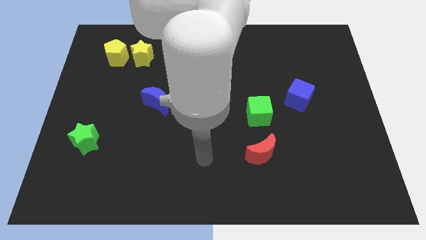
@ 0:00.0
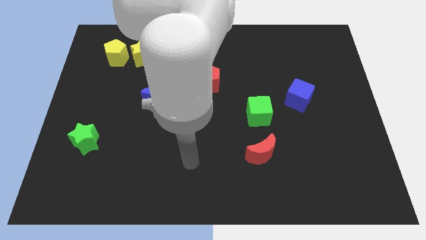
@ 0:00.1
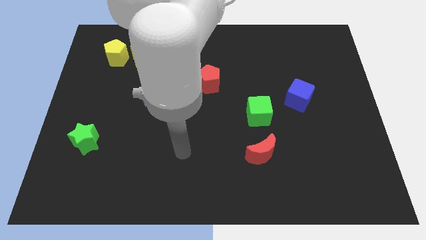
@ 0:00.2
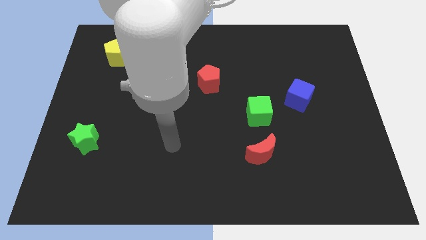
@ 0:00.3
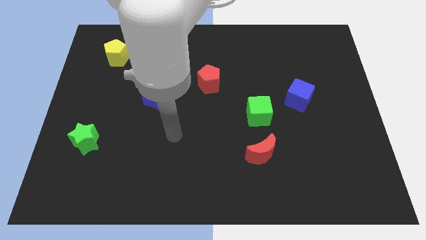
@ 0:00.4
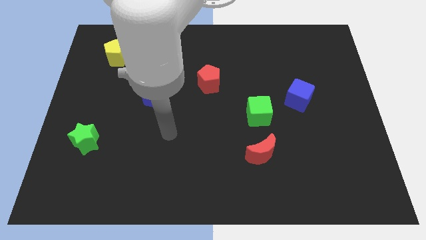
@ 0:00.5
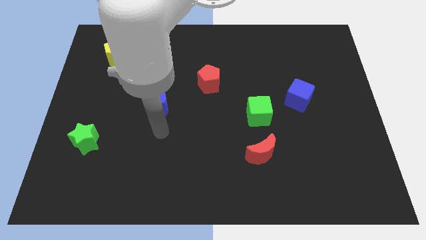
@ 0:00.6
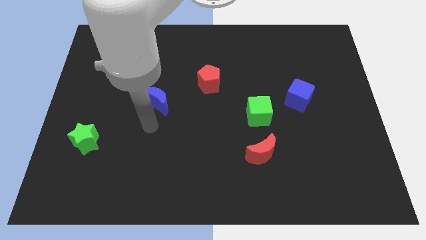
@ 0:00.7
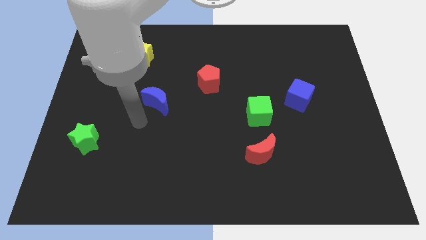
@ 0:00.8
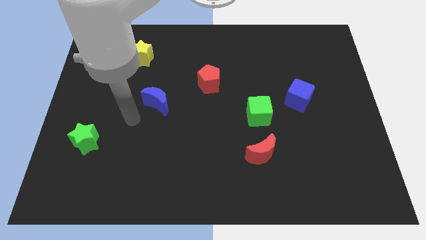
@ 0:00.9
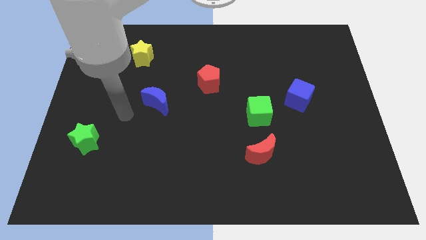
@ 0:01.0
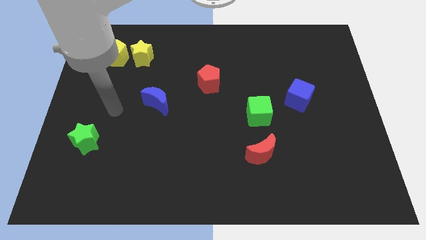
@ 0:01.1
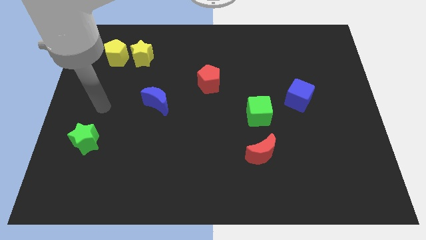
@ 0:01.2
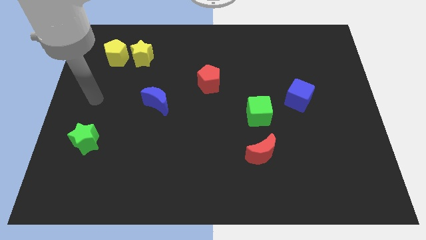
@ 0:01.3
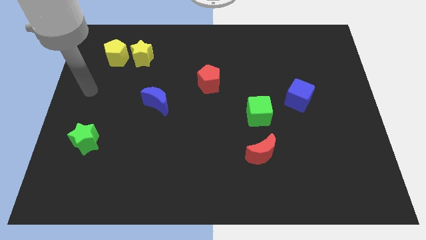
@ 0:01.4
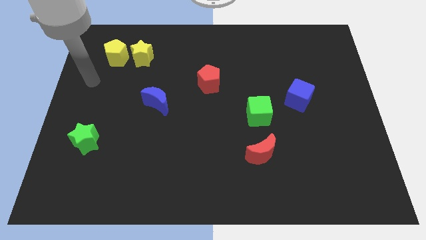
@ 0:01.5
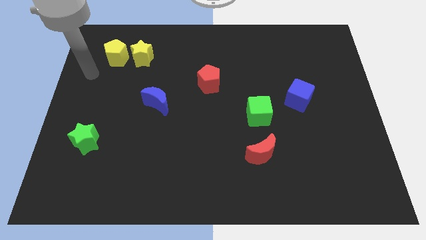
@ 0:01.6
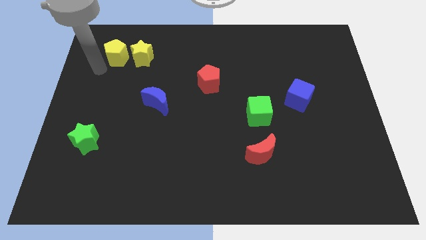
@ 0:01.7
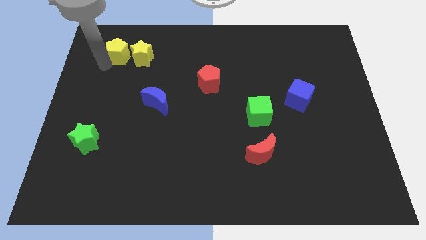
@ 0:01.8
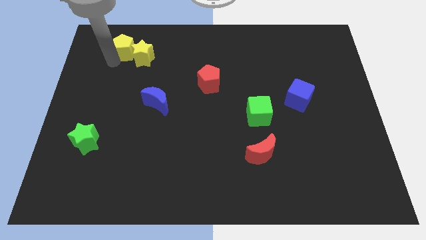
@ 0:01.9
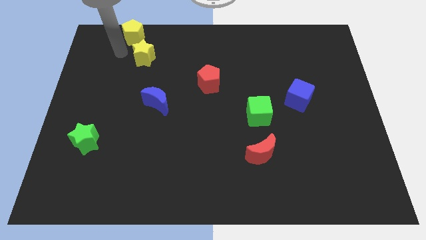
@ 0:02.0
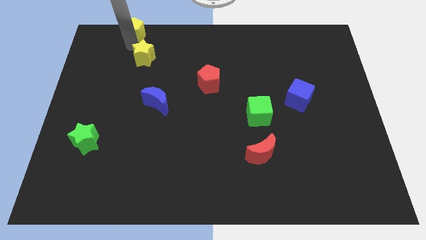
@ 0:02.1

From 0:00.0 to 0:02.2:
move the yellow star away from the yellow pentagon

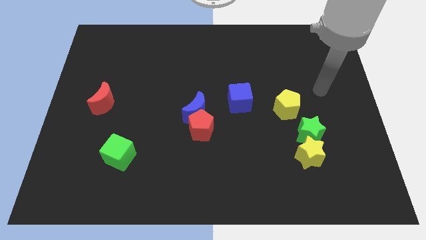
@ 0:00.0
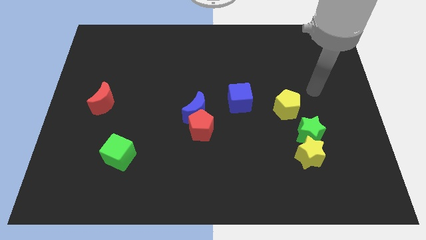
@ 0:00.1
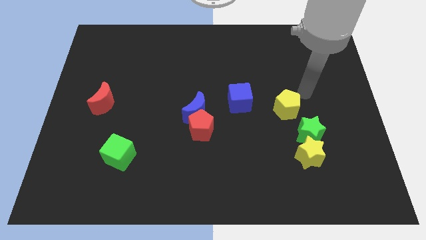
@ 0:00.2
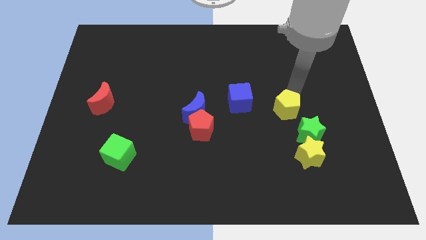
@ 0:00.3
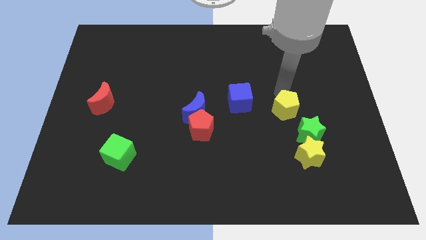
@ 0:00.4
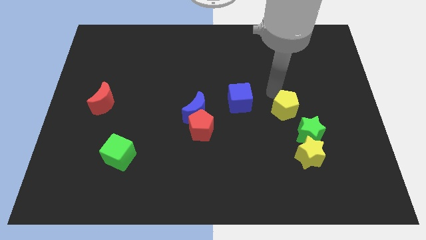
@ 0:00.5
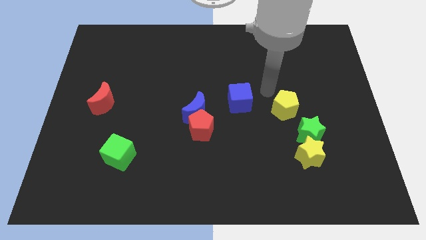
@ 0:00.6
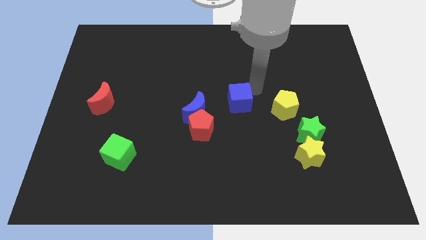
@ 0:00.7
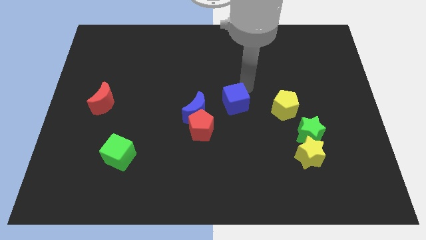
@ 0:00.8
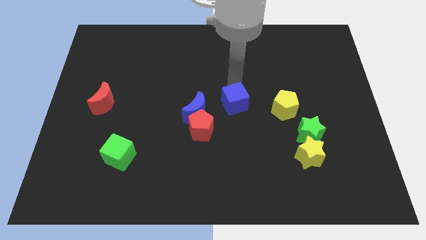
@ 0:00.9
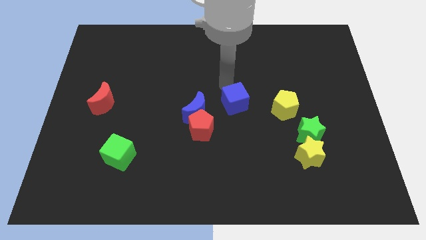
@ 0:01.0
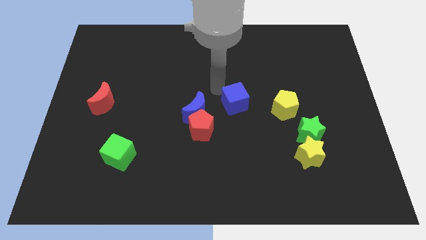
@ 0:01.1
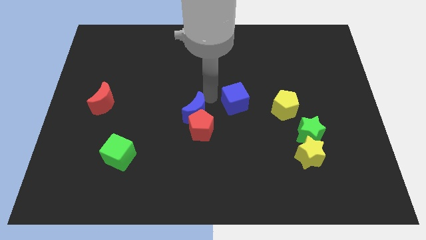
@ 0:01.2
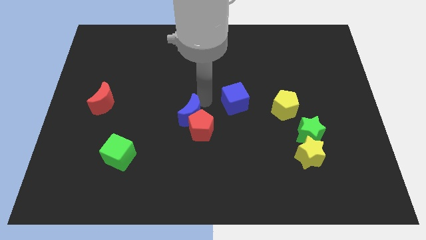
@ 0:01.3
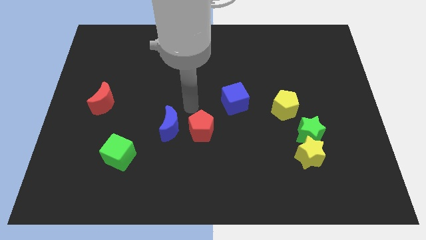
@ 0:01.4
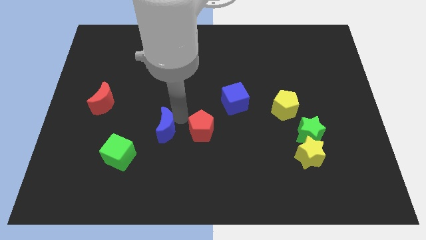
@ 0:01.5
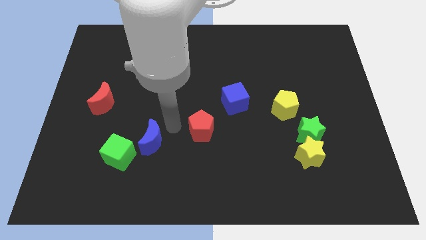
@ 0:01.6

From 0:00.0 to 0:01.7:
separate the red pentagon from the blue moon

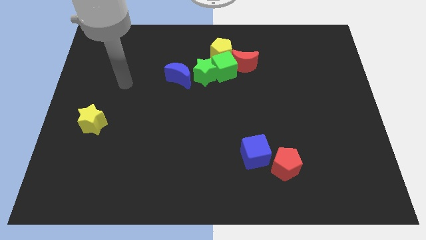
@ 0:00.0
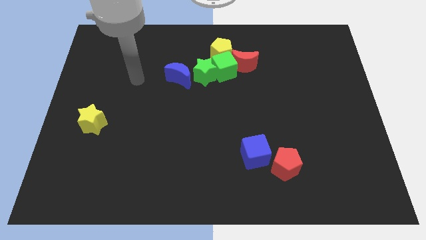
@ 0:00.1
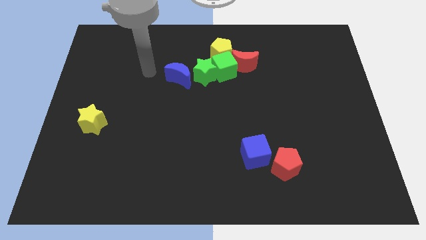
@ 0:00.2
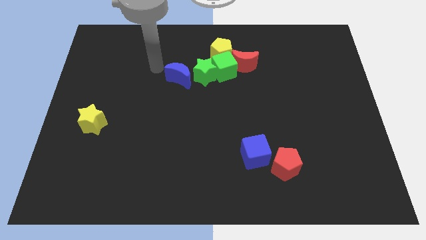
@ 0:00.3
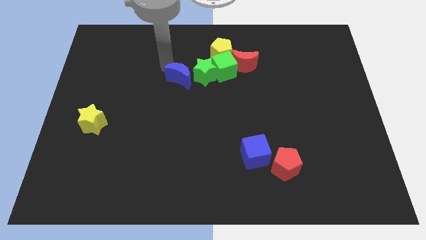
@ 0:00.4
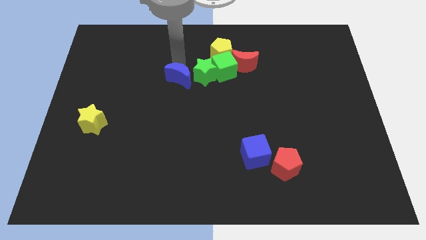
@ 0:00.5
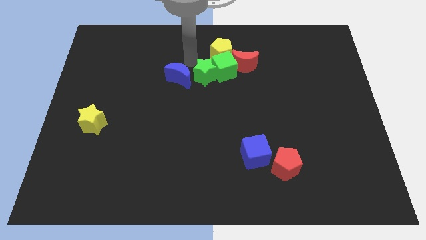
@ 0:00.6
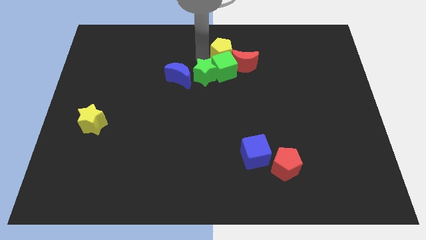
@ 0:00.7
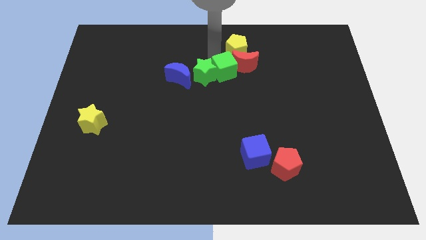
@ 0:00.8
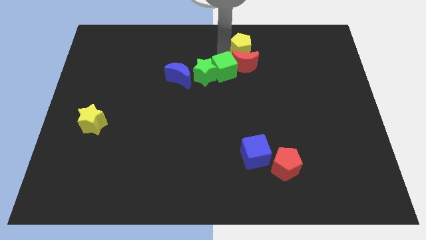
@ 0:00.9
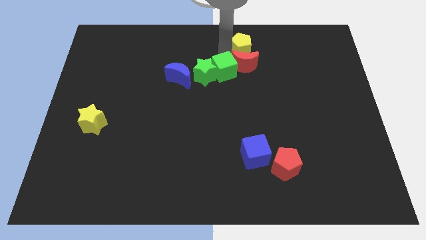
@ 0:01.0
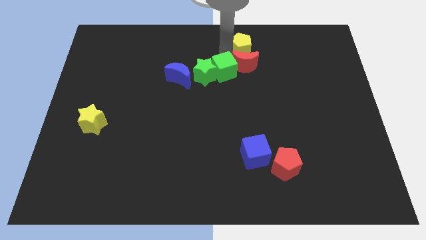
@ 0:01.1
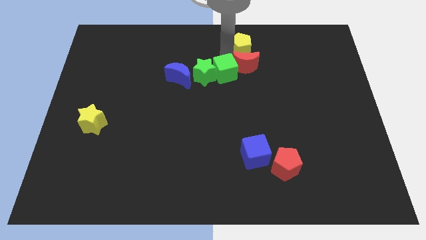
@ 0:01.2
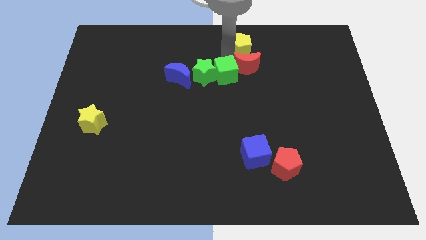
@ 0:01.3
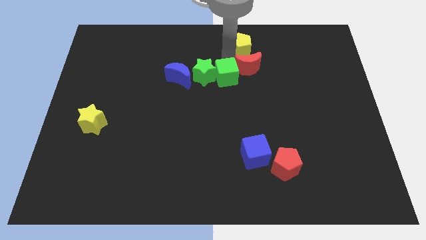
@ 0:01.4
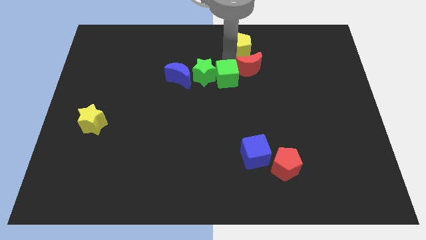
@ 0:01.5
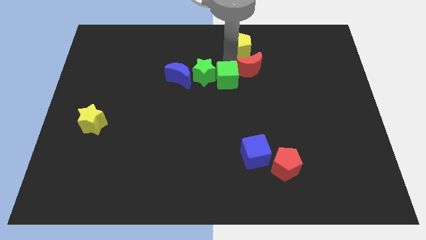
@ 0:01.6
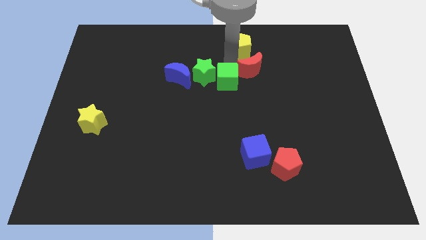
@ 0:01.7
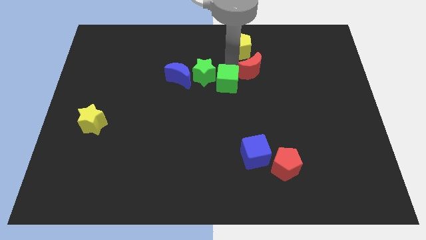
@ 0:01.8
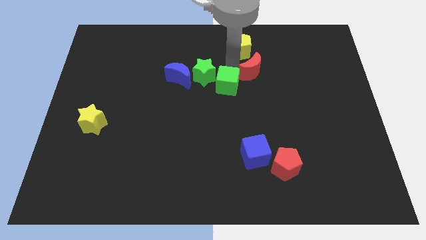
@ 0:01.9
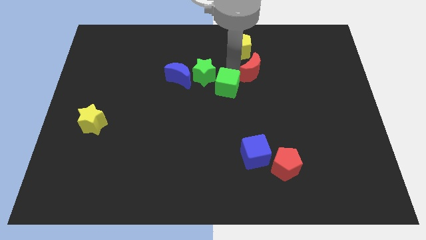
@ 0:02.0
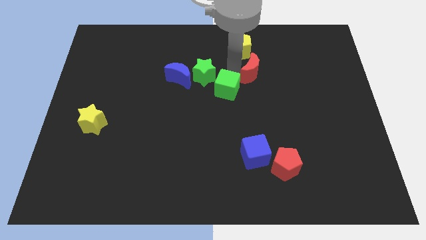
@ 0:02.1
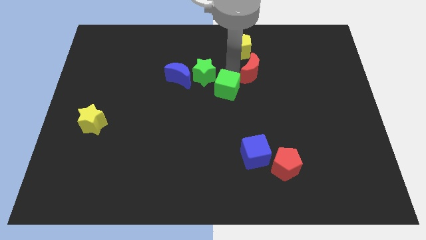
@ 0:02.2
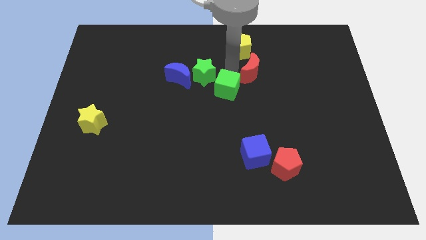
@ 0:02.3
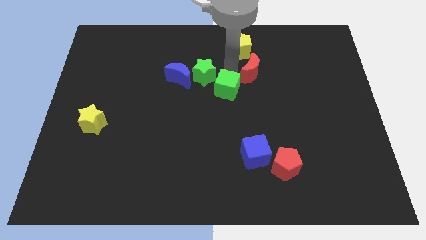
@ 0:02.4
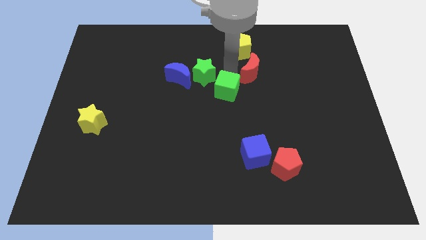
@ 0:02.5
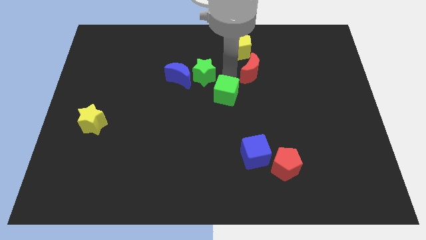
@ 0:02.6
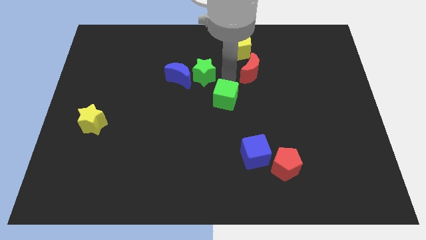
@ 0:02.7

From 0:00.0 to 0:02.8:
separate the green cube from the group of blocks

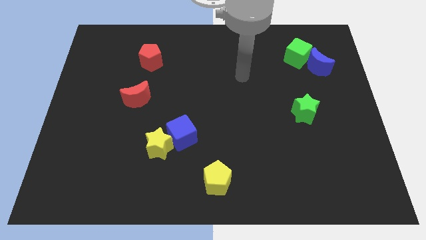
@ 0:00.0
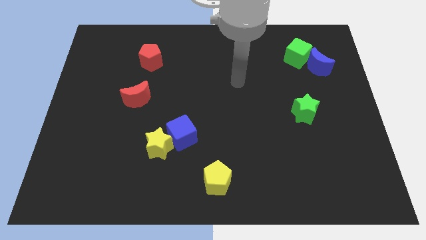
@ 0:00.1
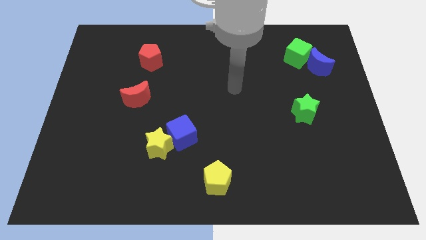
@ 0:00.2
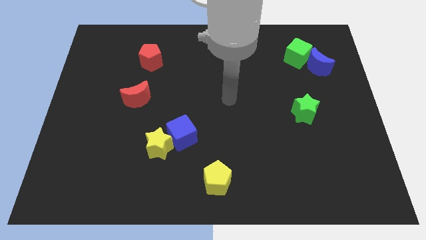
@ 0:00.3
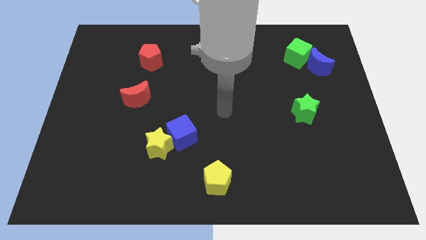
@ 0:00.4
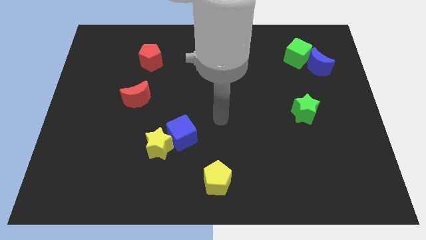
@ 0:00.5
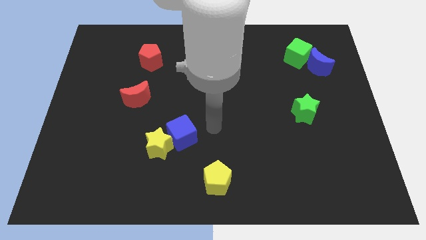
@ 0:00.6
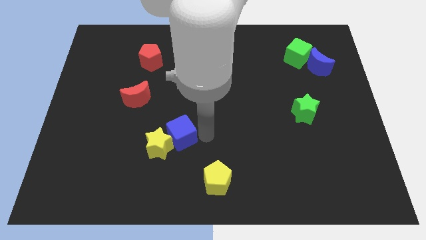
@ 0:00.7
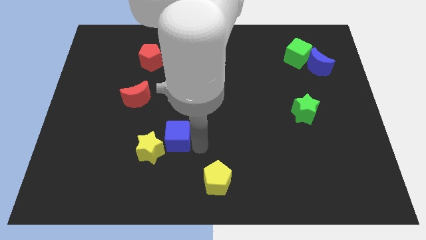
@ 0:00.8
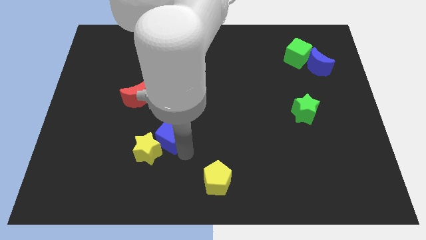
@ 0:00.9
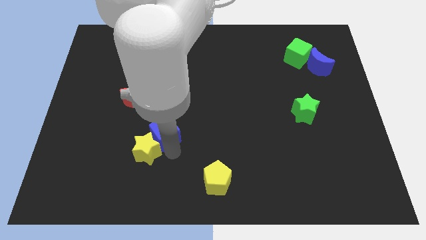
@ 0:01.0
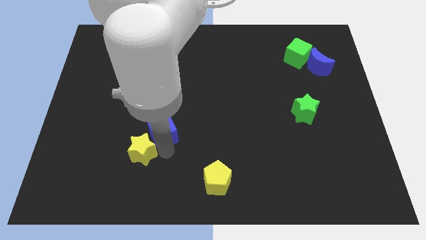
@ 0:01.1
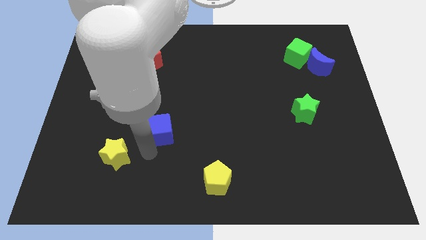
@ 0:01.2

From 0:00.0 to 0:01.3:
separate the blue cube from the yellow star

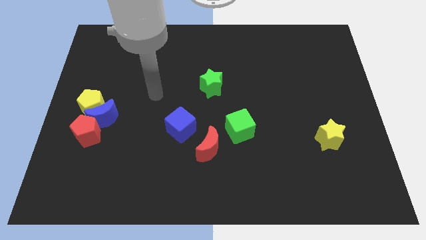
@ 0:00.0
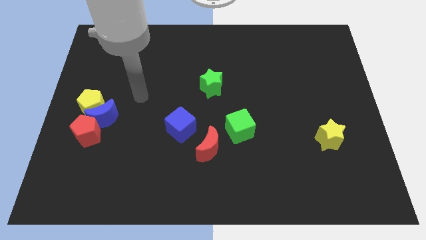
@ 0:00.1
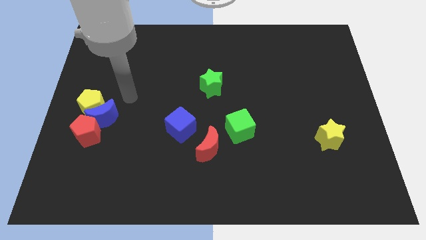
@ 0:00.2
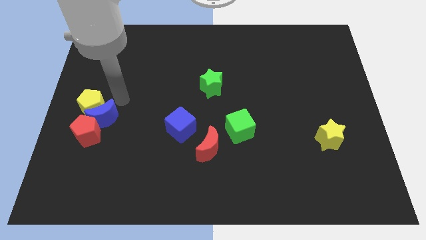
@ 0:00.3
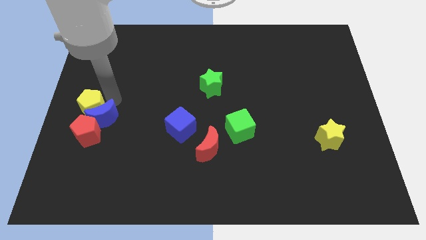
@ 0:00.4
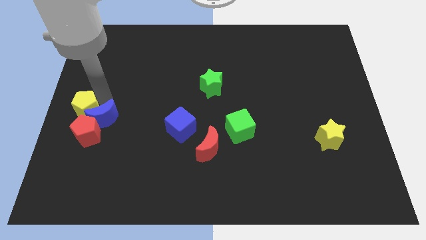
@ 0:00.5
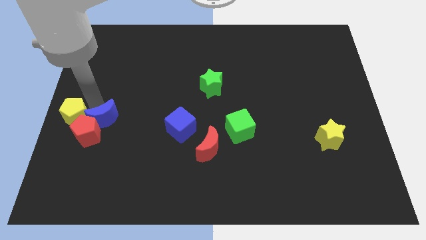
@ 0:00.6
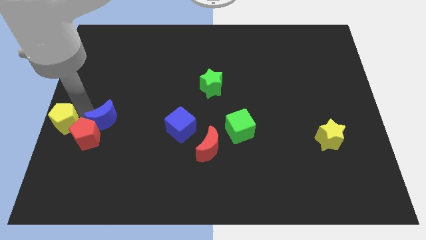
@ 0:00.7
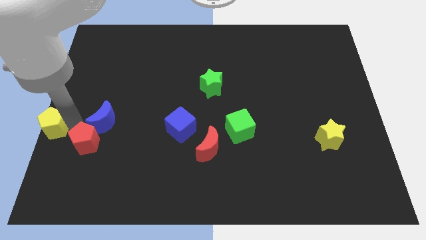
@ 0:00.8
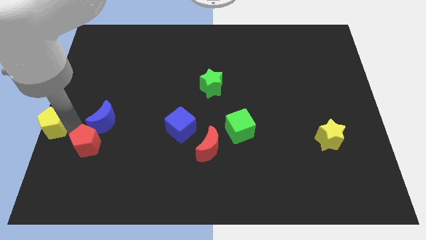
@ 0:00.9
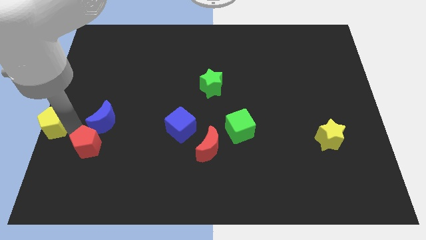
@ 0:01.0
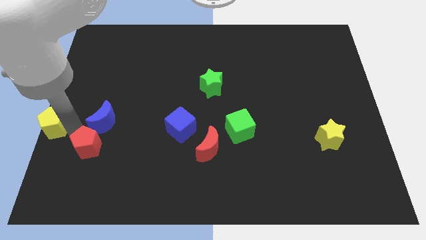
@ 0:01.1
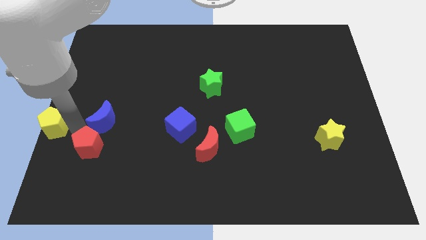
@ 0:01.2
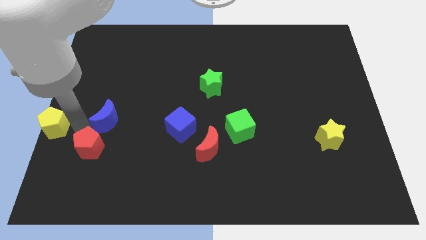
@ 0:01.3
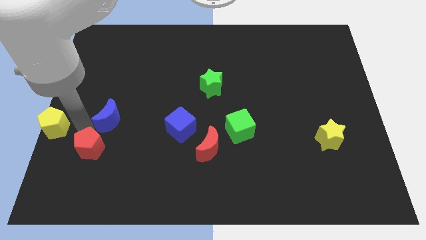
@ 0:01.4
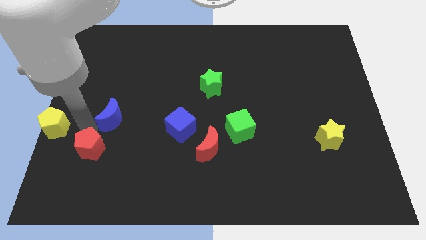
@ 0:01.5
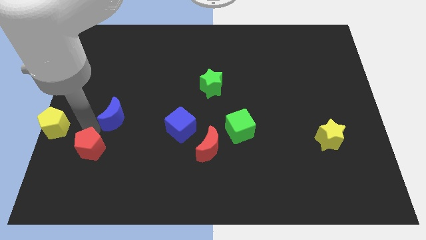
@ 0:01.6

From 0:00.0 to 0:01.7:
pull the blue moon apart from the yellow pentagon and red pentagon
